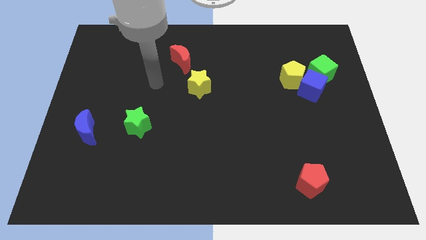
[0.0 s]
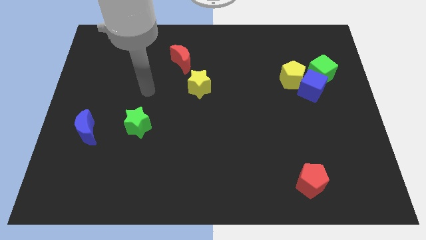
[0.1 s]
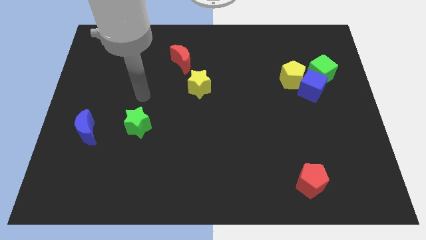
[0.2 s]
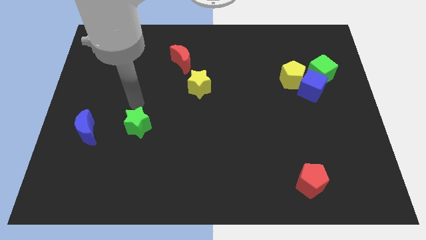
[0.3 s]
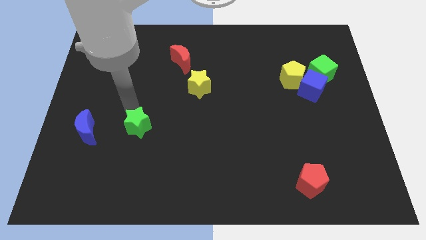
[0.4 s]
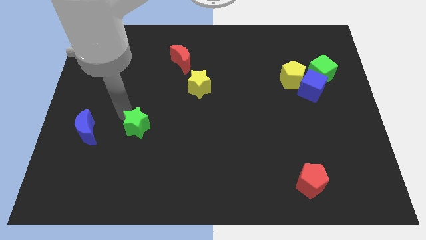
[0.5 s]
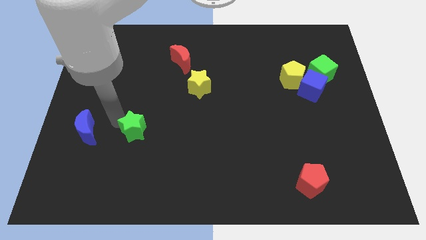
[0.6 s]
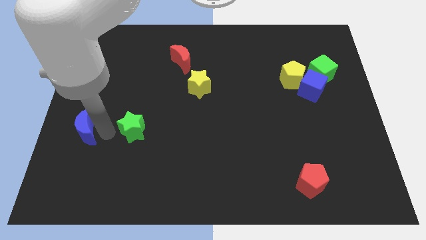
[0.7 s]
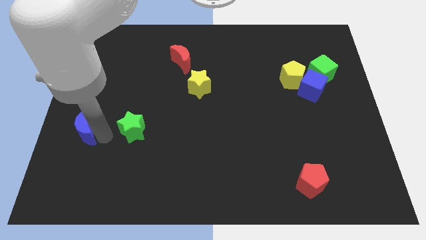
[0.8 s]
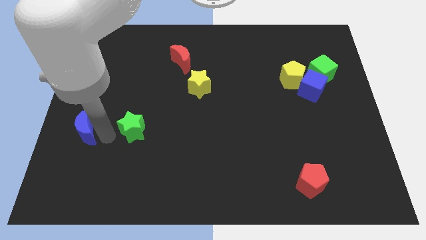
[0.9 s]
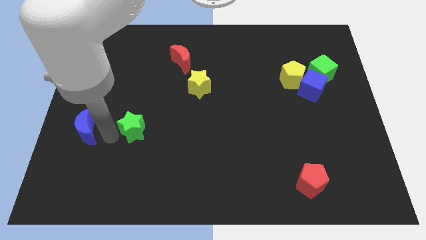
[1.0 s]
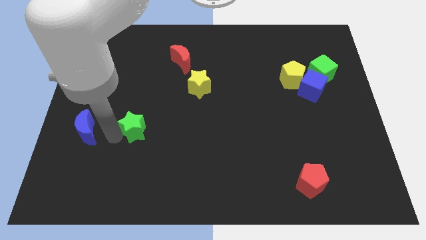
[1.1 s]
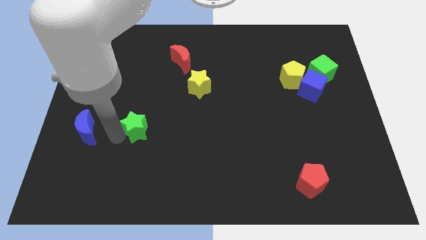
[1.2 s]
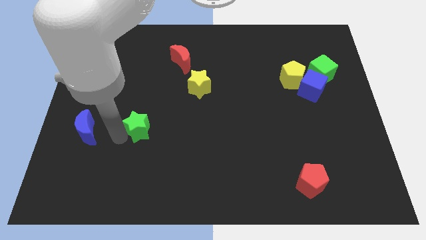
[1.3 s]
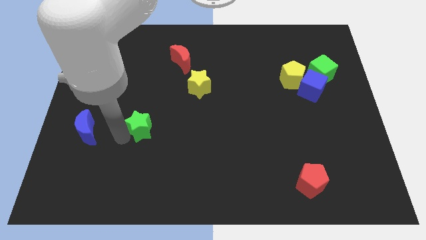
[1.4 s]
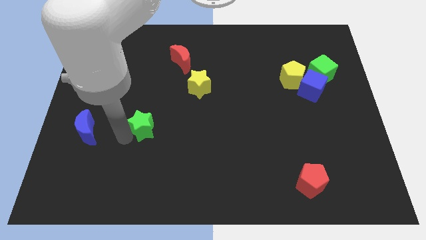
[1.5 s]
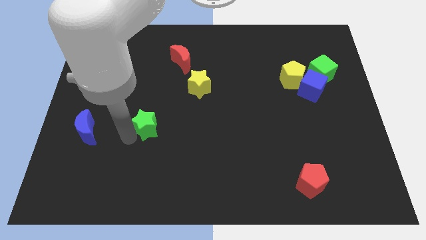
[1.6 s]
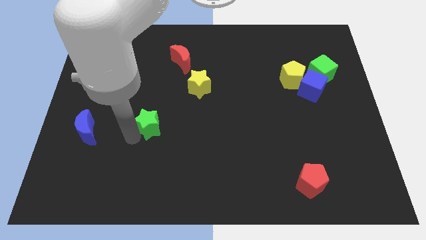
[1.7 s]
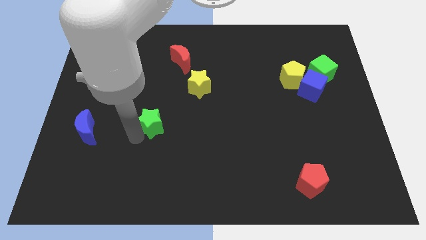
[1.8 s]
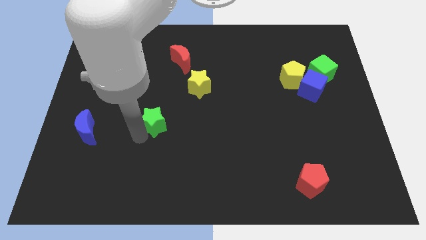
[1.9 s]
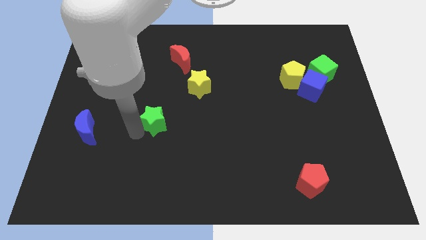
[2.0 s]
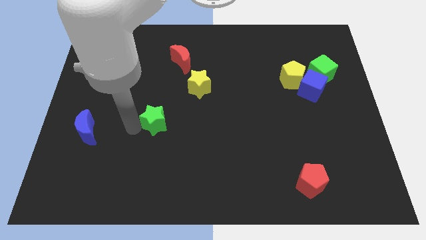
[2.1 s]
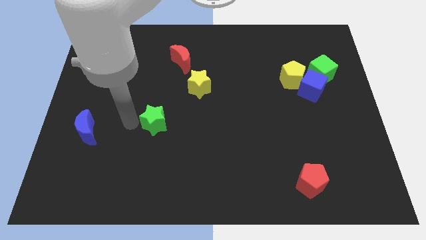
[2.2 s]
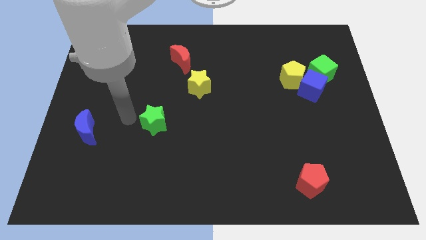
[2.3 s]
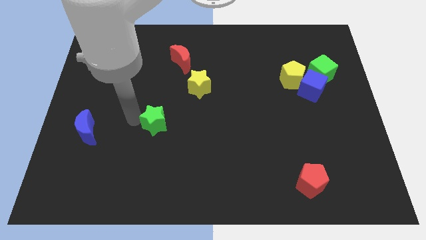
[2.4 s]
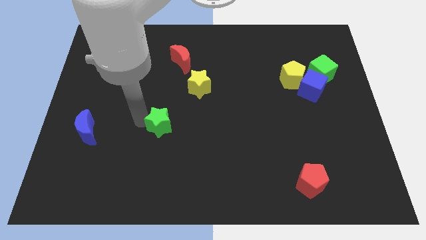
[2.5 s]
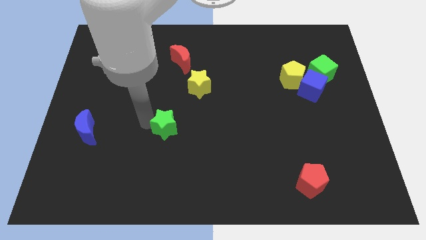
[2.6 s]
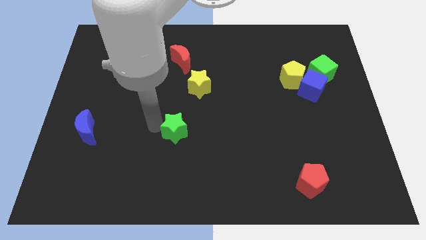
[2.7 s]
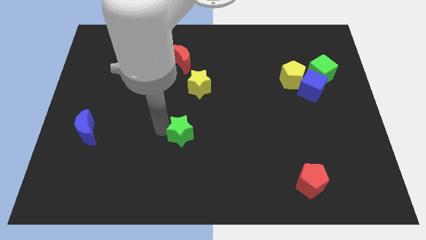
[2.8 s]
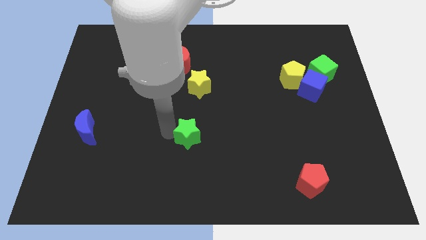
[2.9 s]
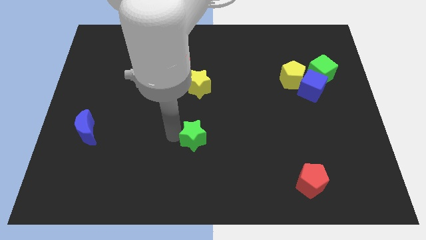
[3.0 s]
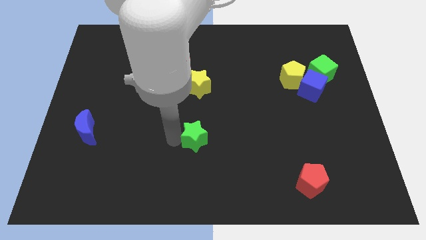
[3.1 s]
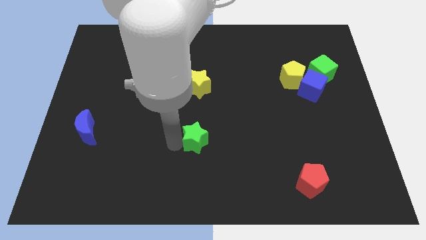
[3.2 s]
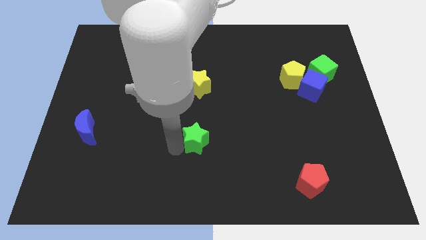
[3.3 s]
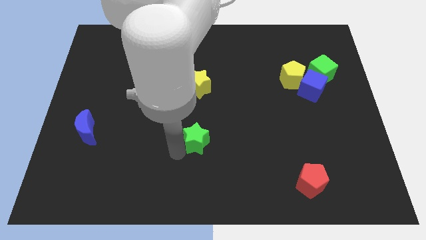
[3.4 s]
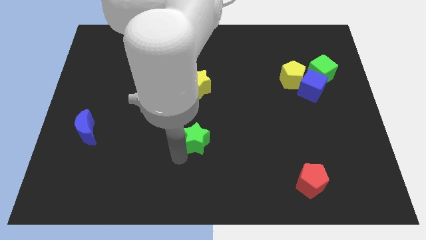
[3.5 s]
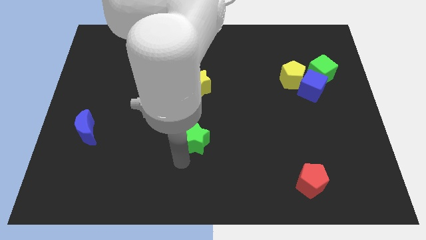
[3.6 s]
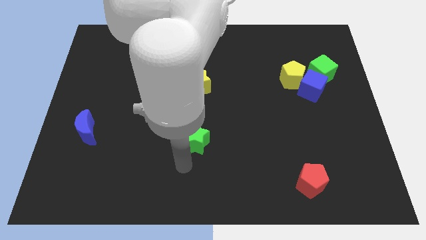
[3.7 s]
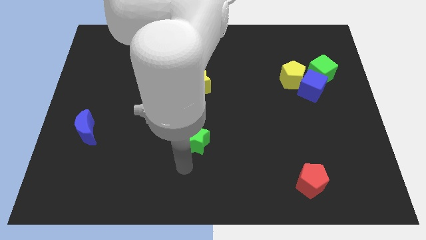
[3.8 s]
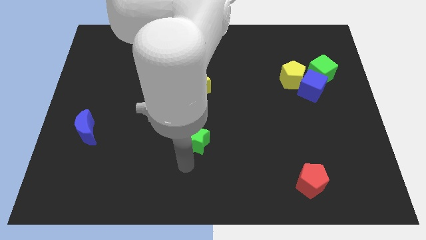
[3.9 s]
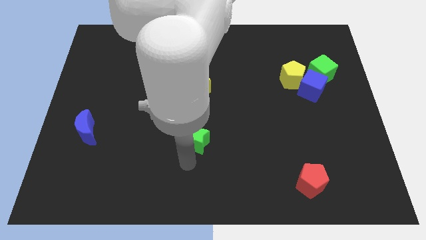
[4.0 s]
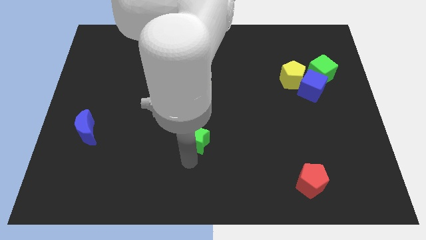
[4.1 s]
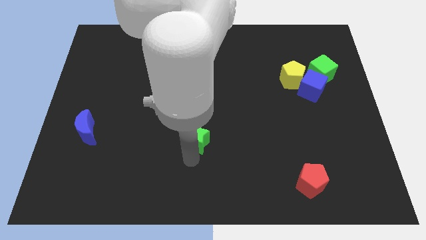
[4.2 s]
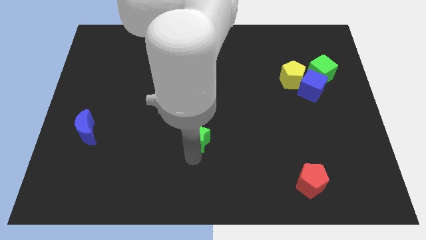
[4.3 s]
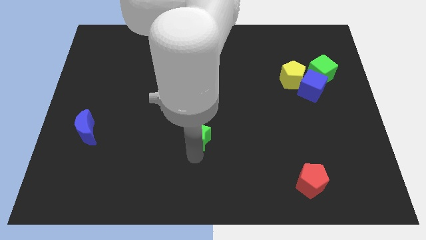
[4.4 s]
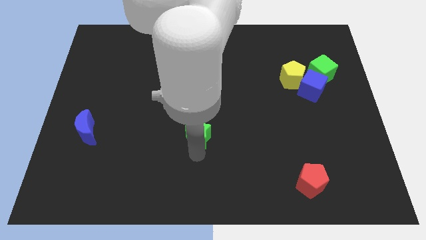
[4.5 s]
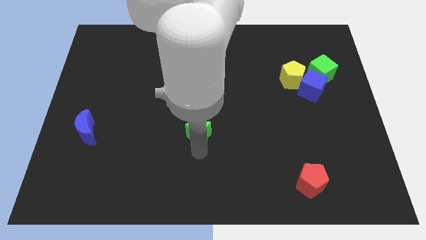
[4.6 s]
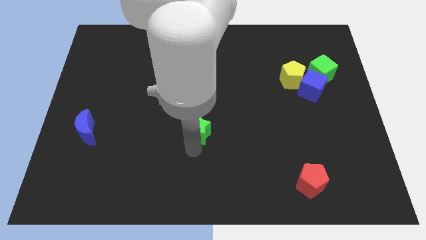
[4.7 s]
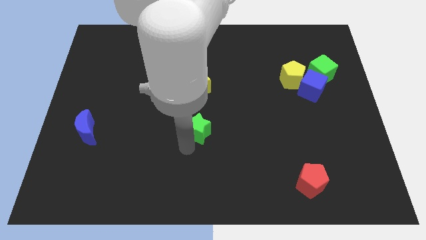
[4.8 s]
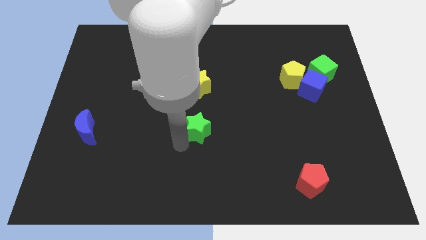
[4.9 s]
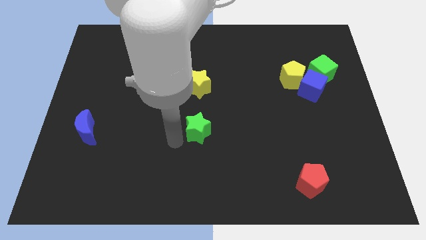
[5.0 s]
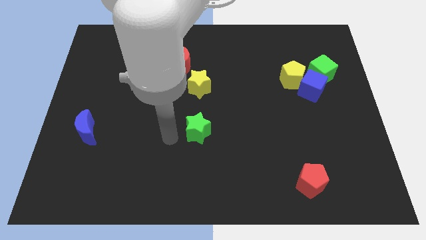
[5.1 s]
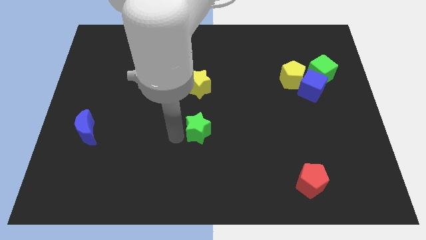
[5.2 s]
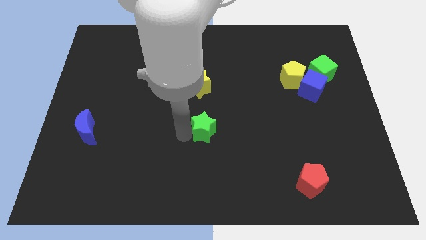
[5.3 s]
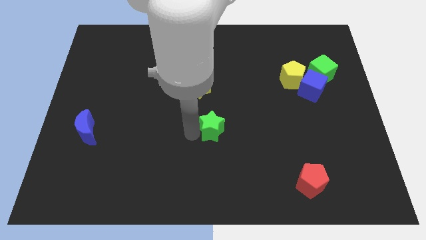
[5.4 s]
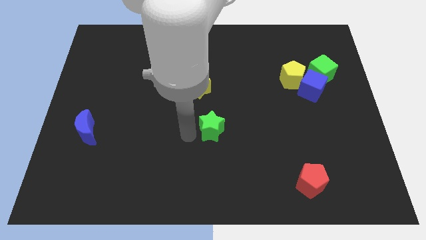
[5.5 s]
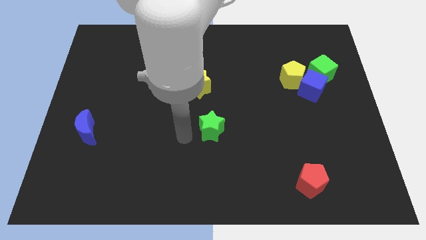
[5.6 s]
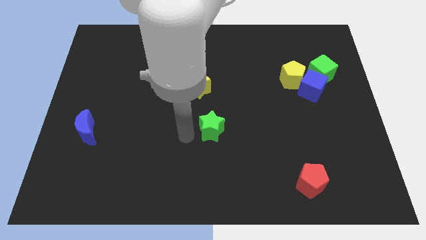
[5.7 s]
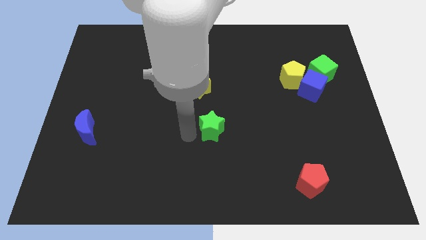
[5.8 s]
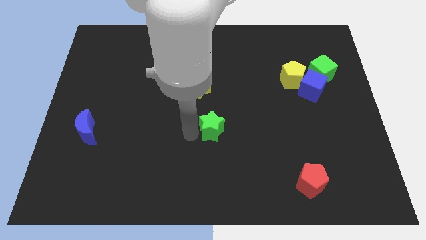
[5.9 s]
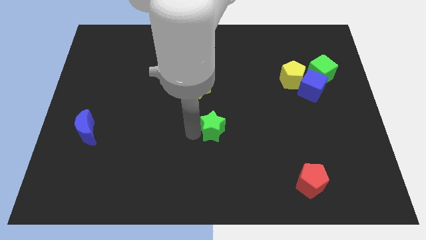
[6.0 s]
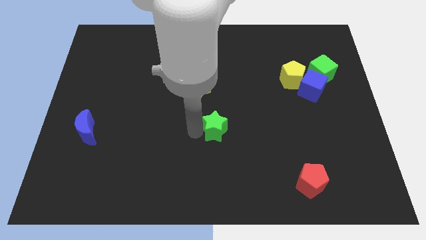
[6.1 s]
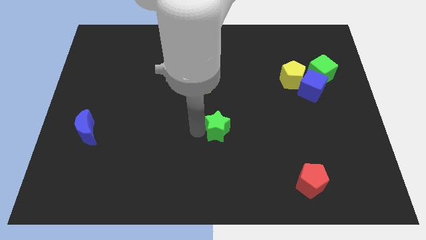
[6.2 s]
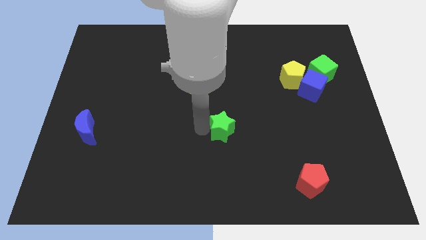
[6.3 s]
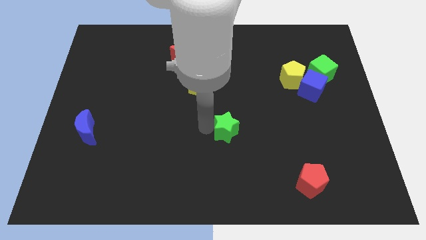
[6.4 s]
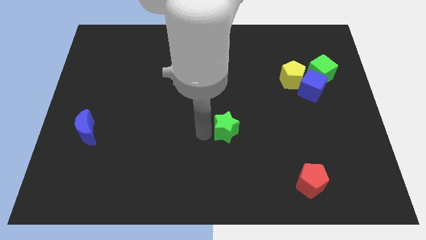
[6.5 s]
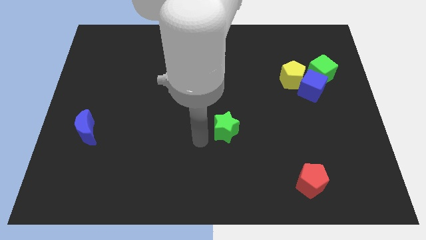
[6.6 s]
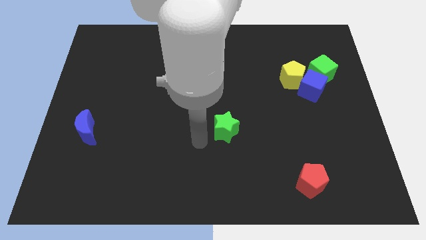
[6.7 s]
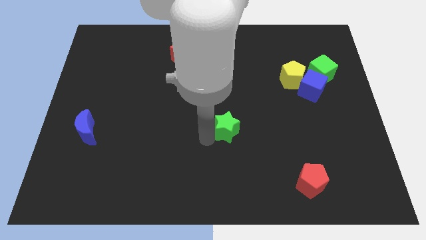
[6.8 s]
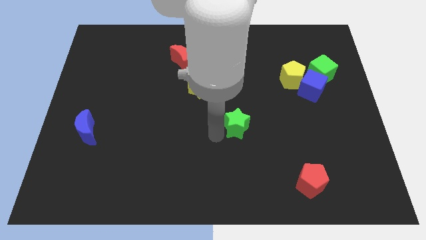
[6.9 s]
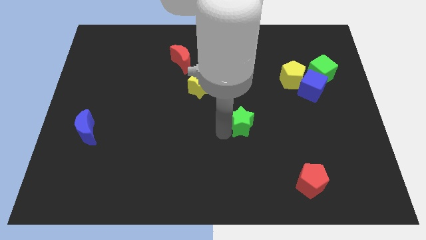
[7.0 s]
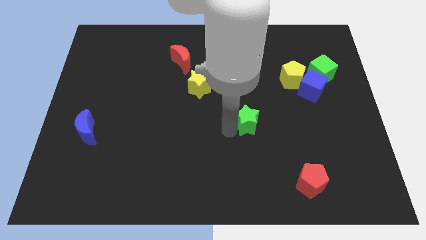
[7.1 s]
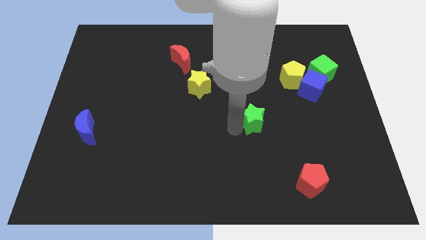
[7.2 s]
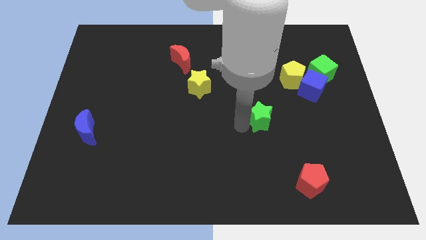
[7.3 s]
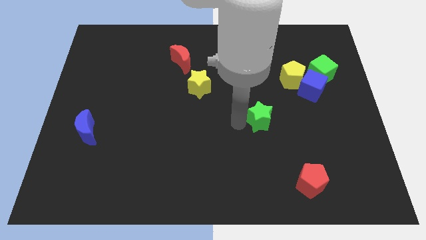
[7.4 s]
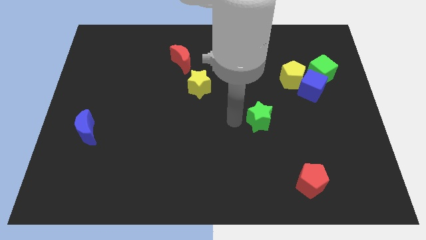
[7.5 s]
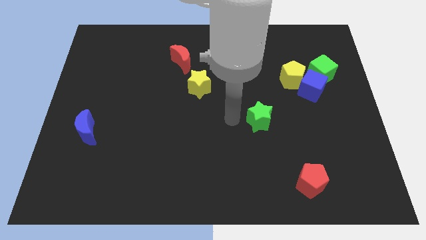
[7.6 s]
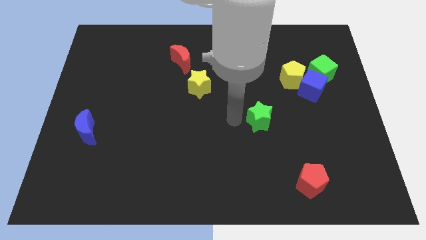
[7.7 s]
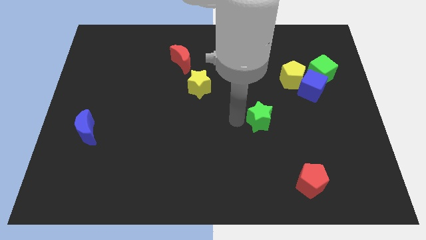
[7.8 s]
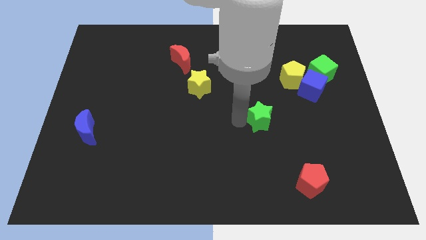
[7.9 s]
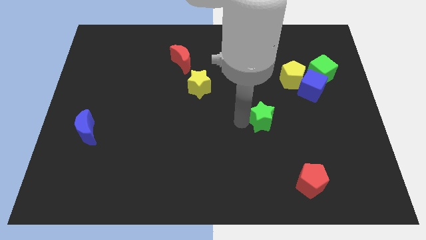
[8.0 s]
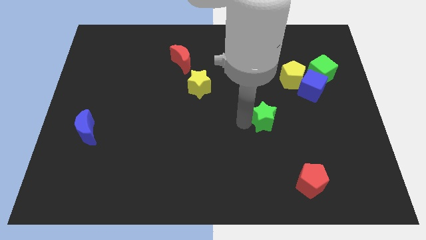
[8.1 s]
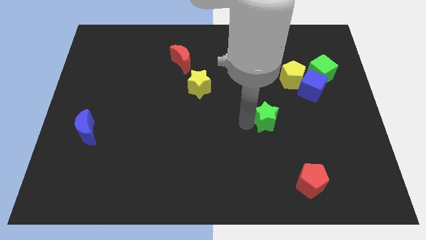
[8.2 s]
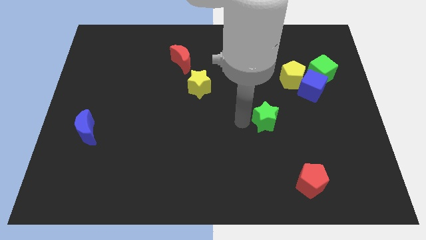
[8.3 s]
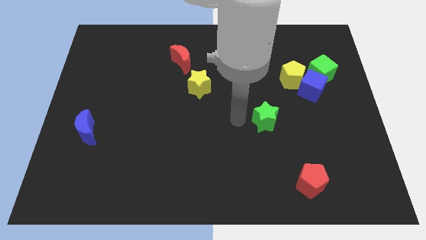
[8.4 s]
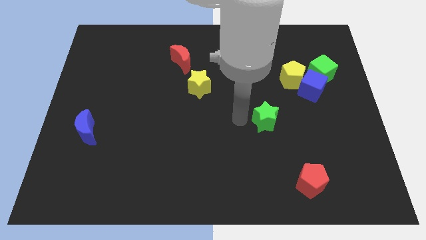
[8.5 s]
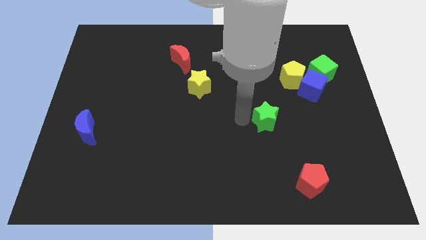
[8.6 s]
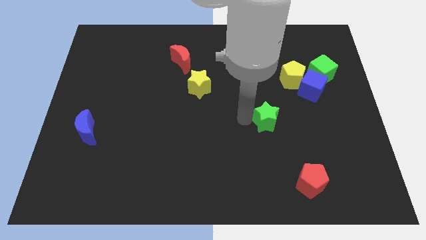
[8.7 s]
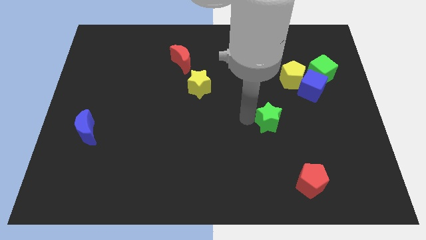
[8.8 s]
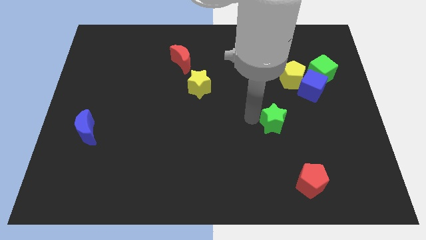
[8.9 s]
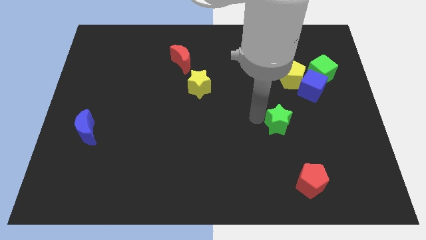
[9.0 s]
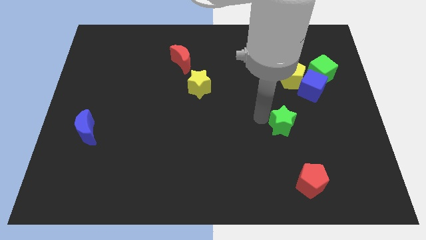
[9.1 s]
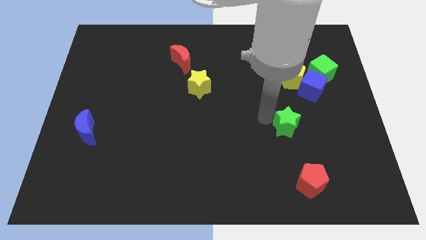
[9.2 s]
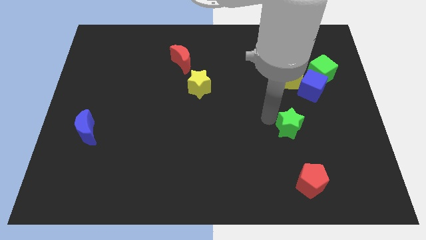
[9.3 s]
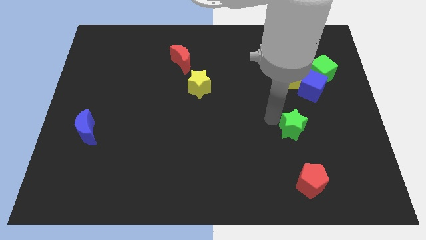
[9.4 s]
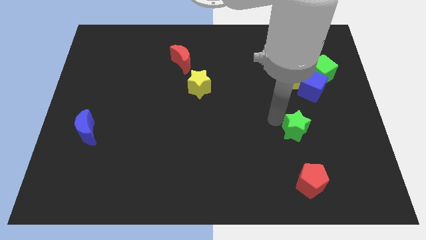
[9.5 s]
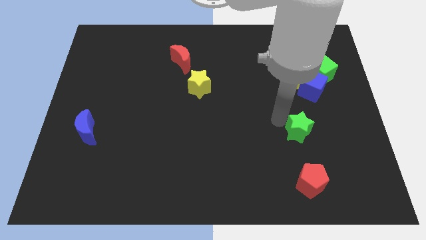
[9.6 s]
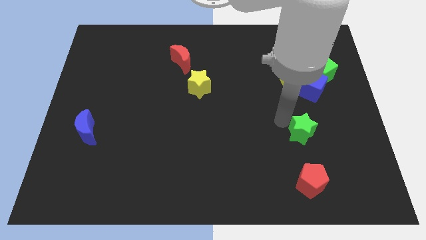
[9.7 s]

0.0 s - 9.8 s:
push the green star to the bottom of the blue cube
